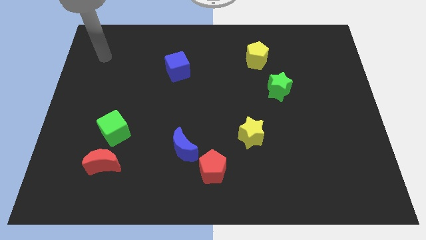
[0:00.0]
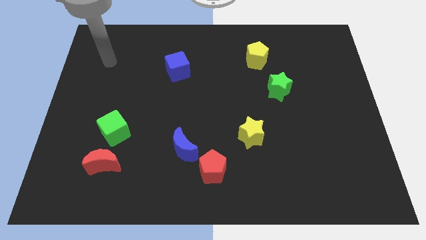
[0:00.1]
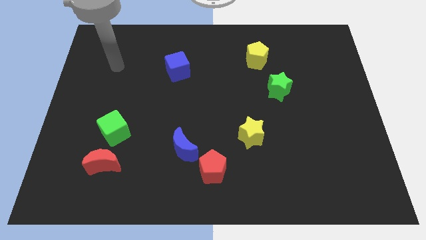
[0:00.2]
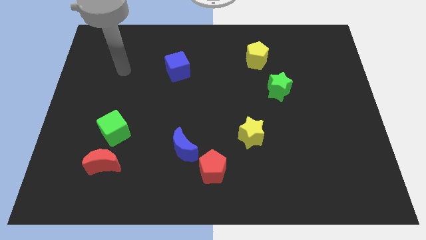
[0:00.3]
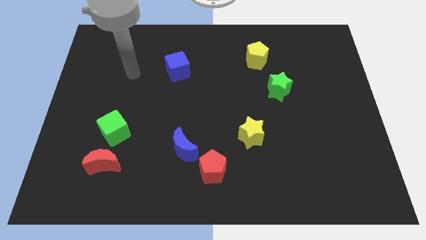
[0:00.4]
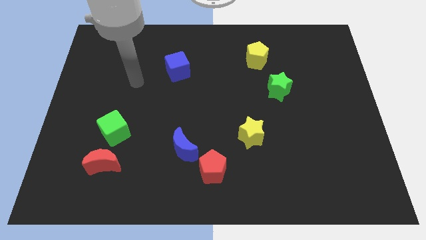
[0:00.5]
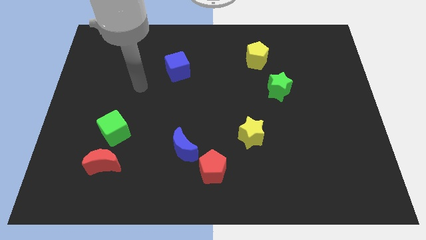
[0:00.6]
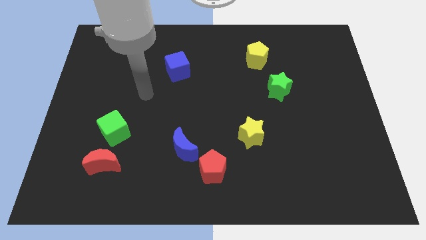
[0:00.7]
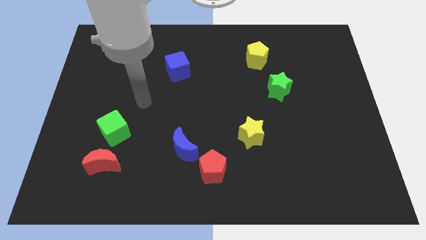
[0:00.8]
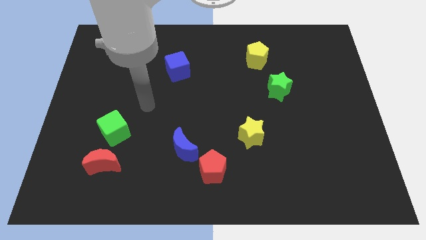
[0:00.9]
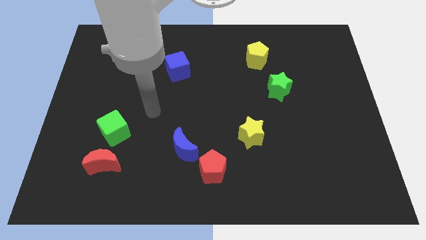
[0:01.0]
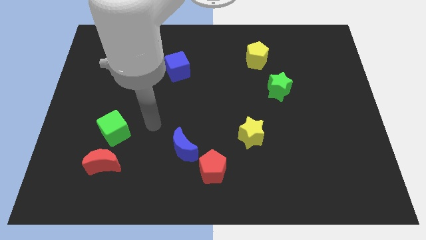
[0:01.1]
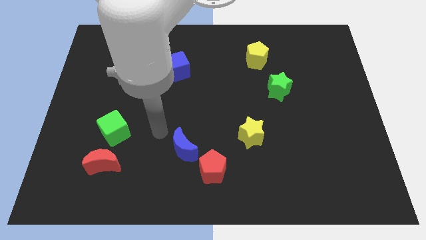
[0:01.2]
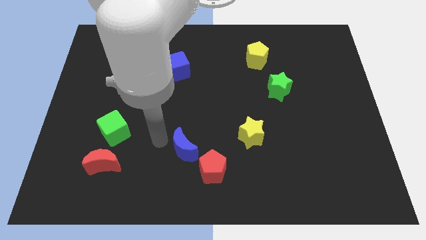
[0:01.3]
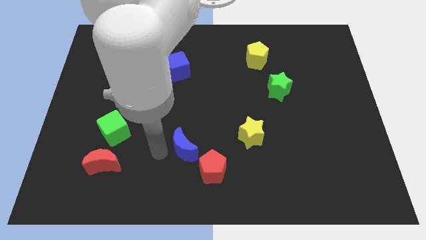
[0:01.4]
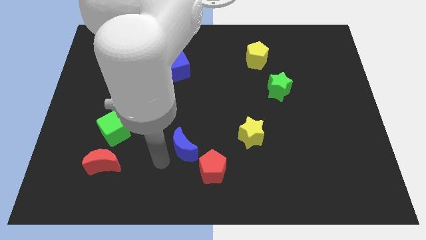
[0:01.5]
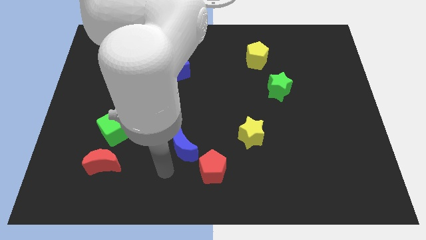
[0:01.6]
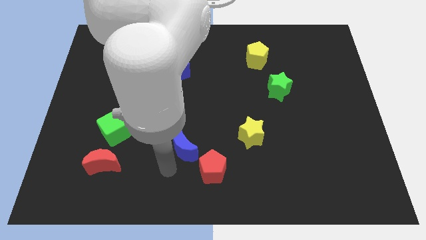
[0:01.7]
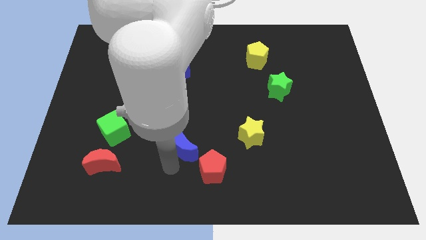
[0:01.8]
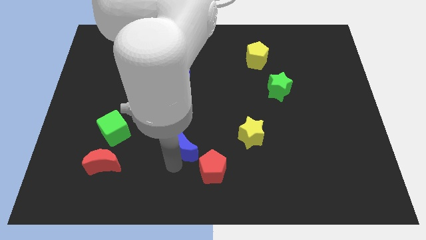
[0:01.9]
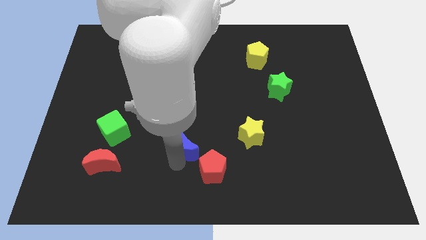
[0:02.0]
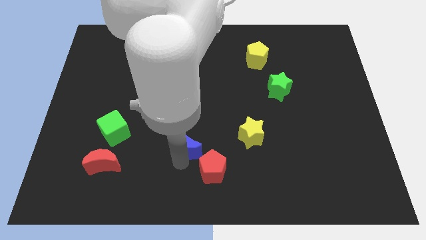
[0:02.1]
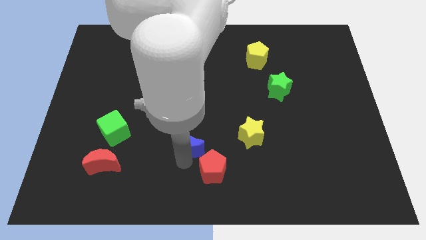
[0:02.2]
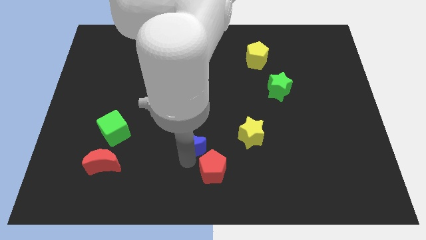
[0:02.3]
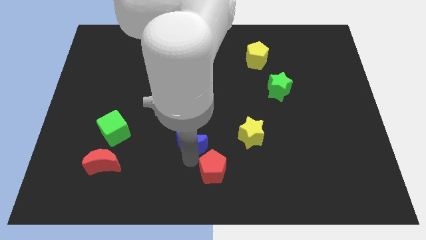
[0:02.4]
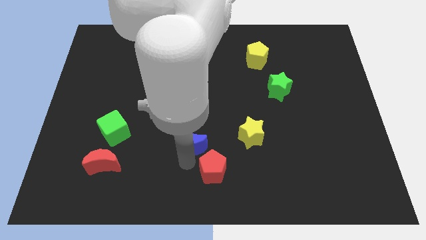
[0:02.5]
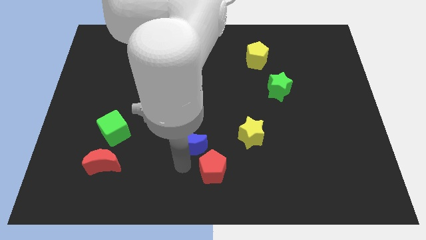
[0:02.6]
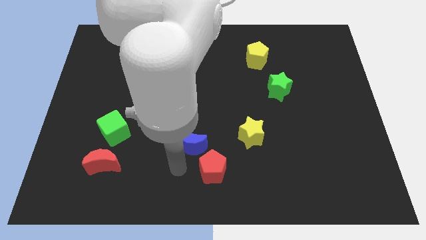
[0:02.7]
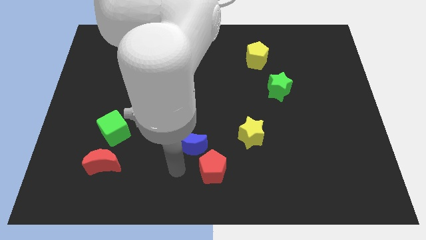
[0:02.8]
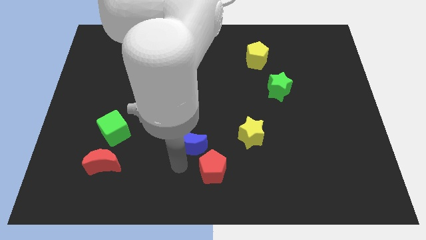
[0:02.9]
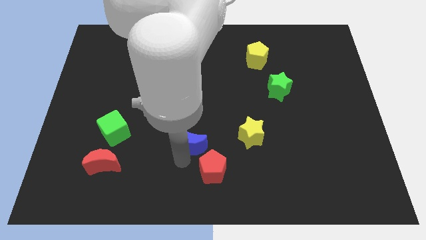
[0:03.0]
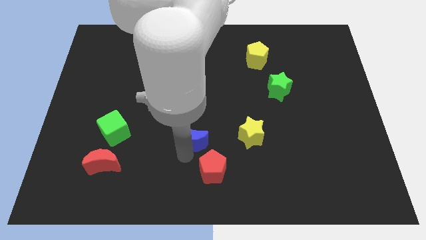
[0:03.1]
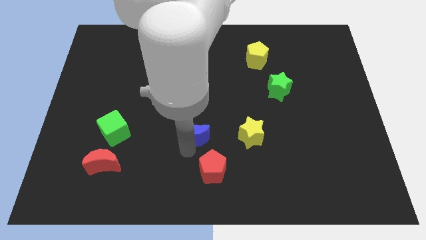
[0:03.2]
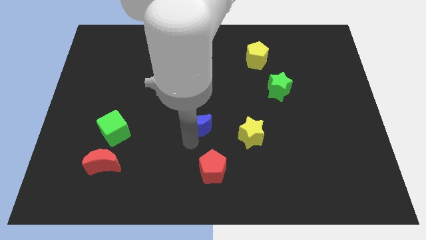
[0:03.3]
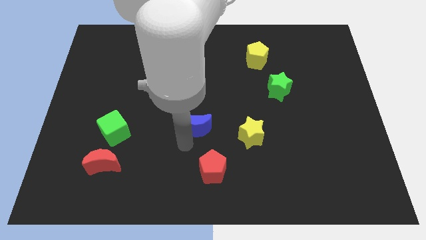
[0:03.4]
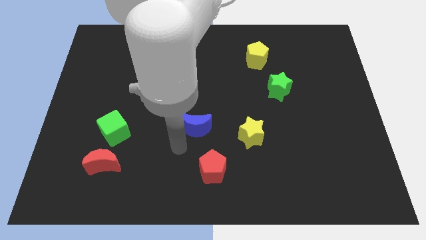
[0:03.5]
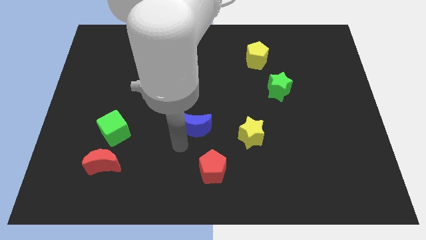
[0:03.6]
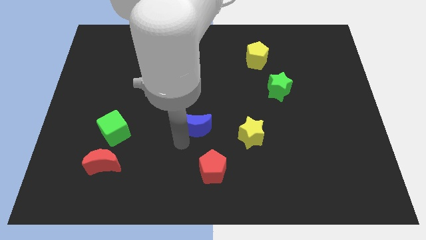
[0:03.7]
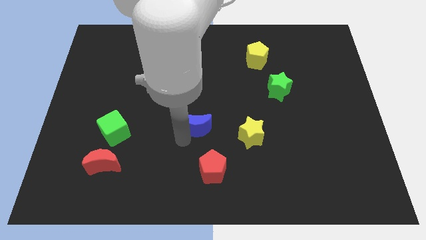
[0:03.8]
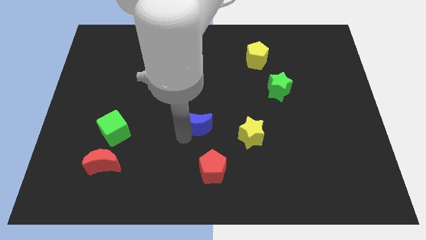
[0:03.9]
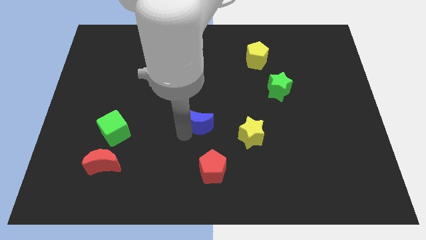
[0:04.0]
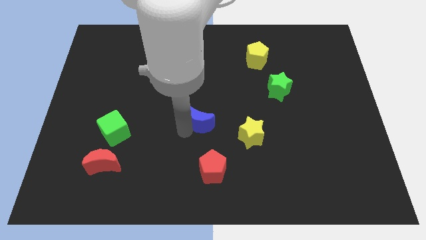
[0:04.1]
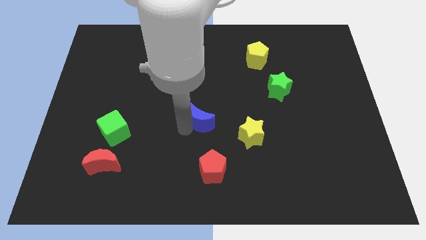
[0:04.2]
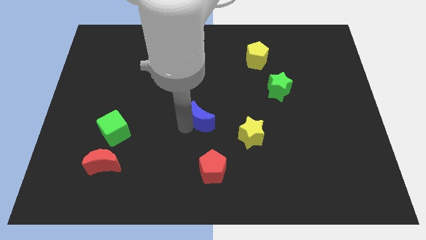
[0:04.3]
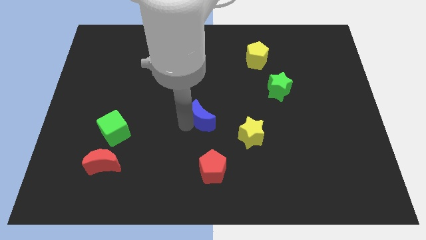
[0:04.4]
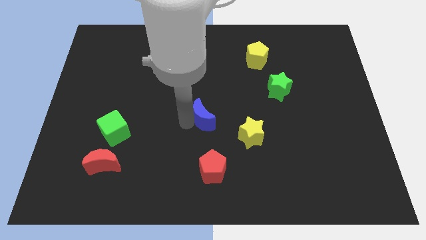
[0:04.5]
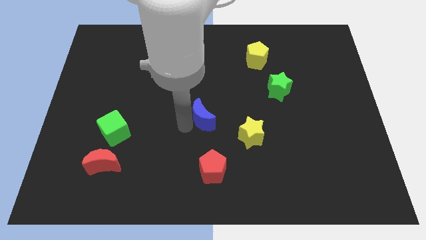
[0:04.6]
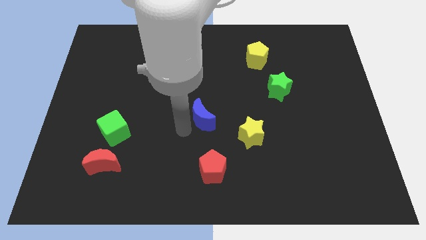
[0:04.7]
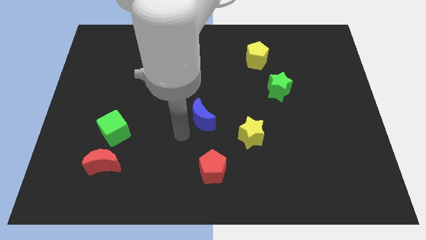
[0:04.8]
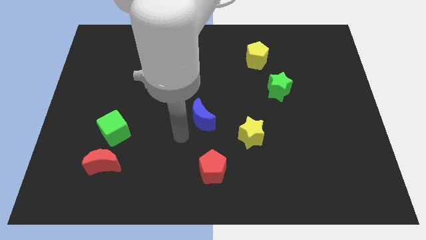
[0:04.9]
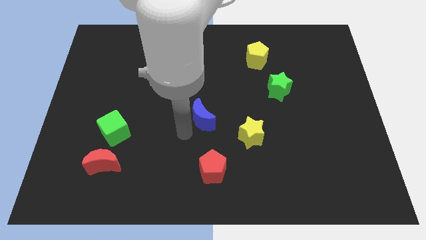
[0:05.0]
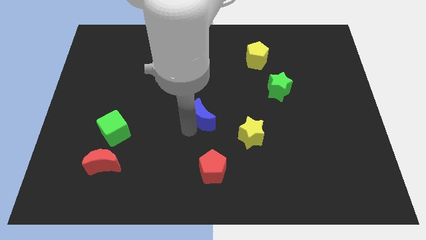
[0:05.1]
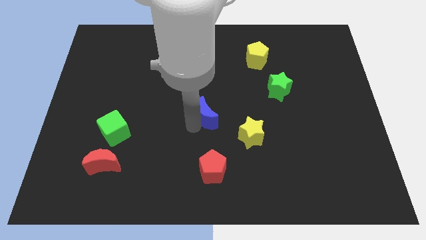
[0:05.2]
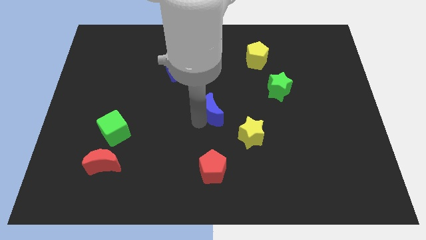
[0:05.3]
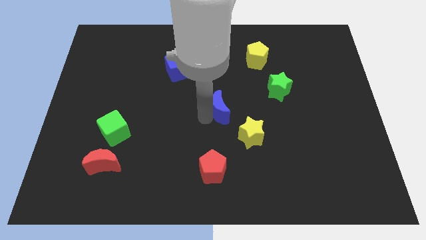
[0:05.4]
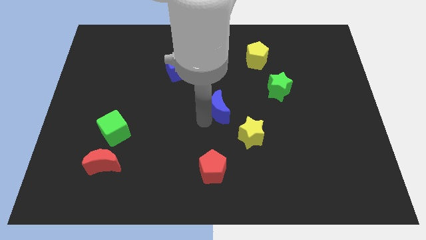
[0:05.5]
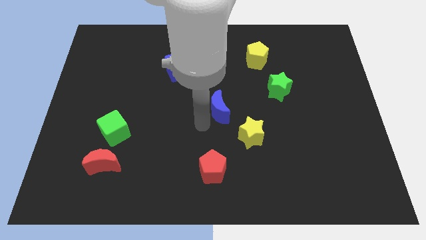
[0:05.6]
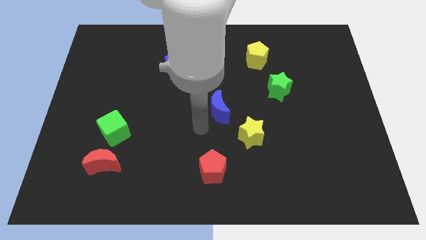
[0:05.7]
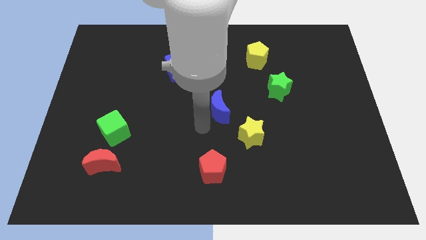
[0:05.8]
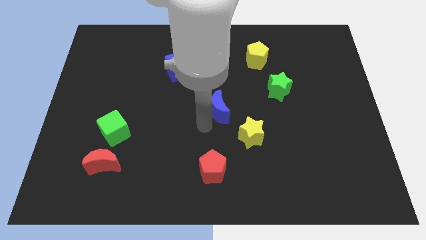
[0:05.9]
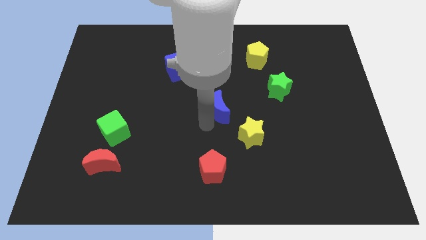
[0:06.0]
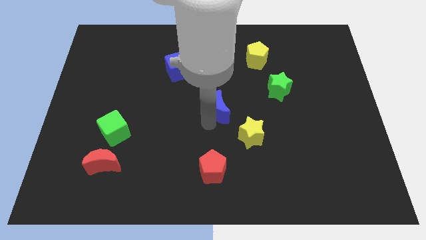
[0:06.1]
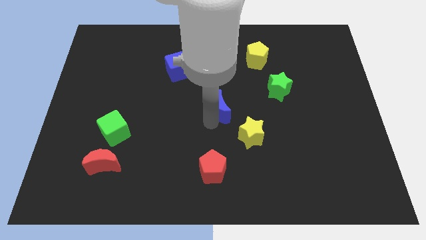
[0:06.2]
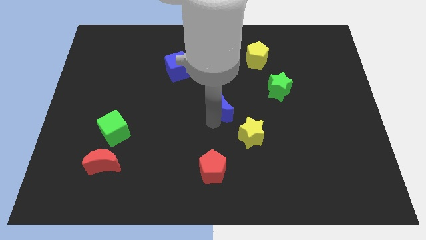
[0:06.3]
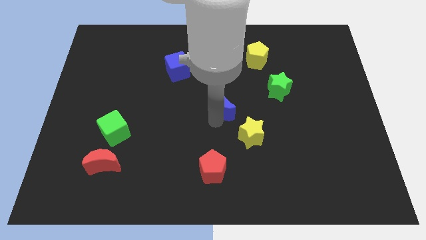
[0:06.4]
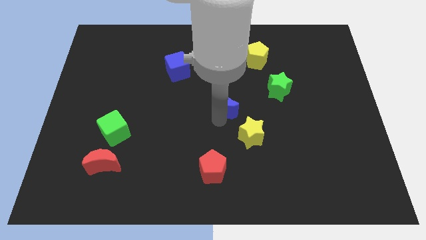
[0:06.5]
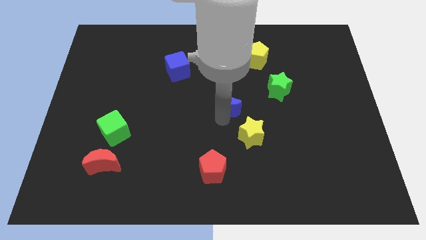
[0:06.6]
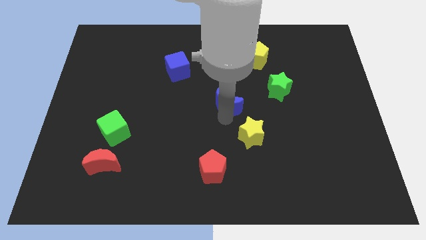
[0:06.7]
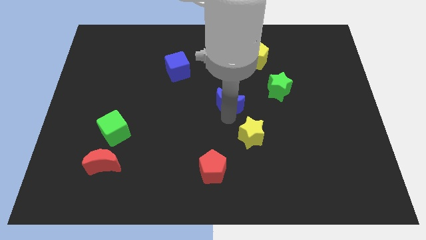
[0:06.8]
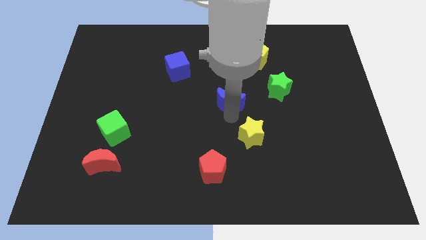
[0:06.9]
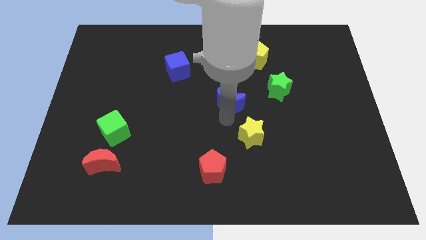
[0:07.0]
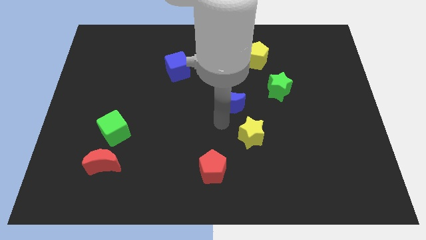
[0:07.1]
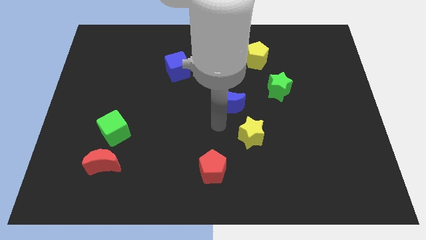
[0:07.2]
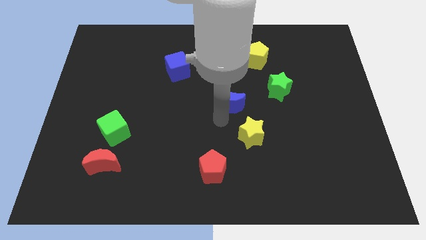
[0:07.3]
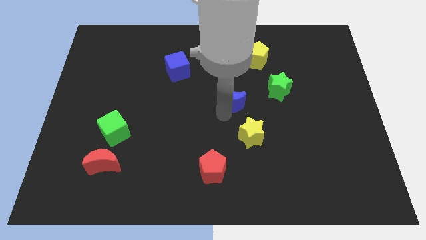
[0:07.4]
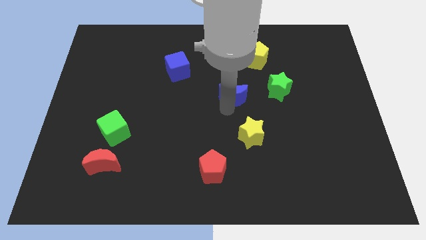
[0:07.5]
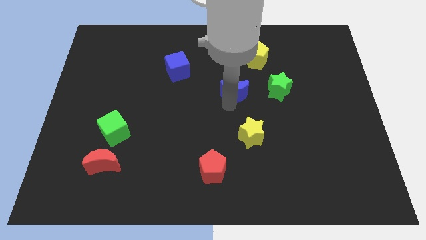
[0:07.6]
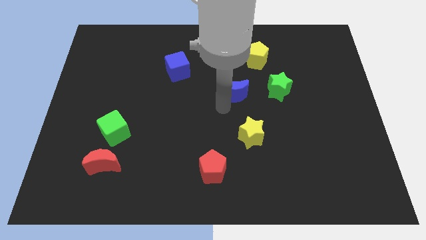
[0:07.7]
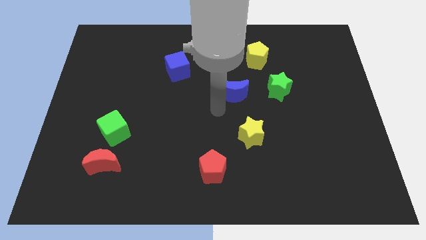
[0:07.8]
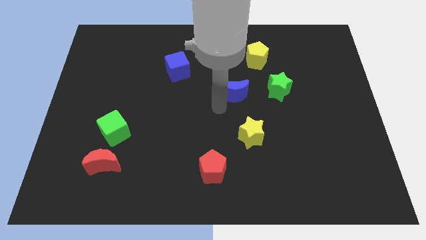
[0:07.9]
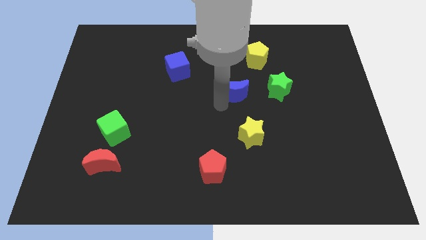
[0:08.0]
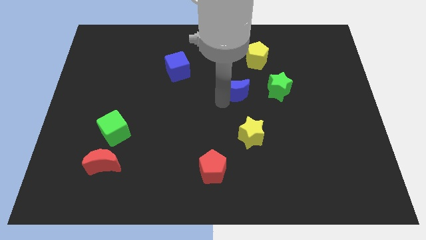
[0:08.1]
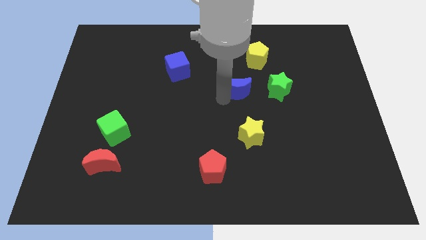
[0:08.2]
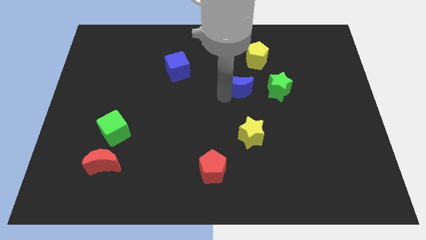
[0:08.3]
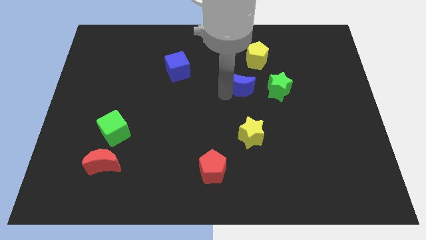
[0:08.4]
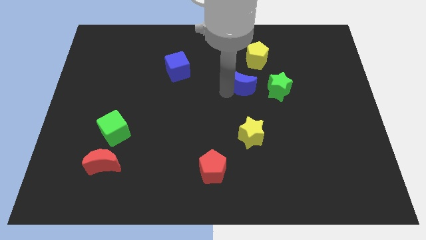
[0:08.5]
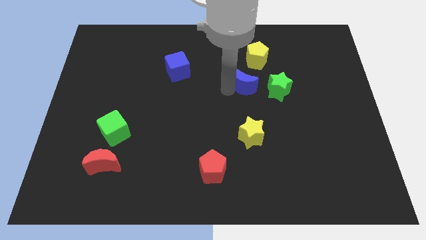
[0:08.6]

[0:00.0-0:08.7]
put the blue moon to the top left of the green star
